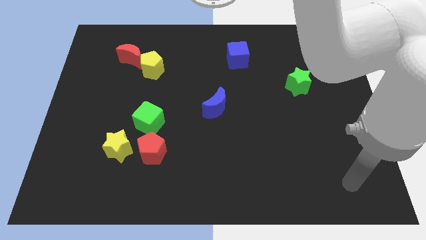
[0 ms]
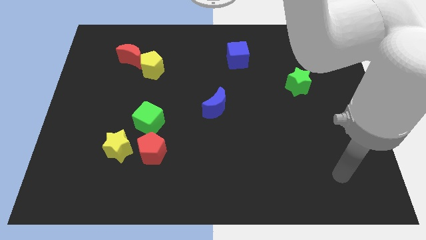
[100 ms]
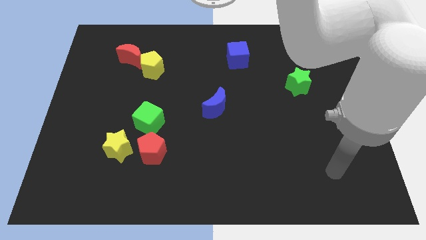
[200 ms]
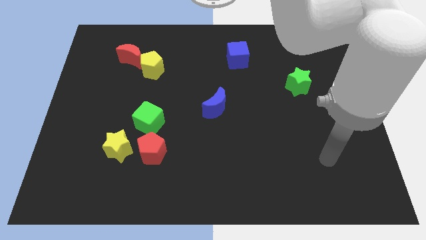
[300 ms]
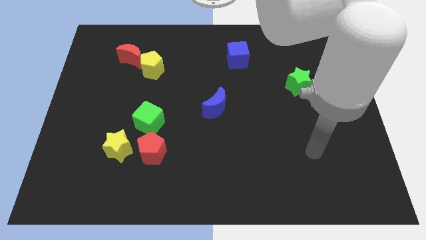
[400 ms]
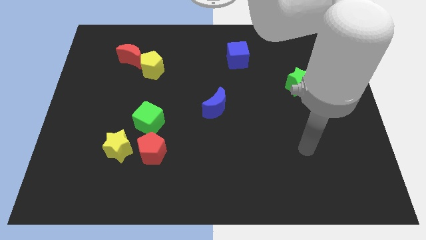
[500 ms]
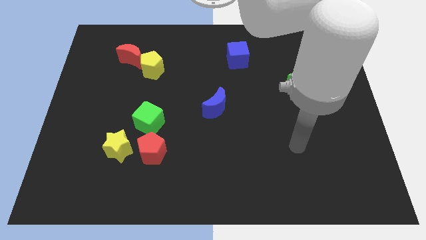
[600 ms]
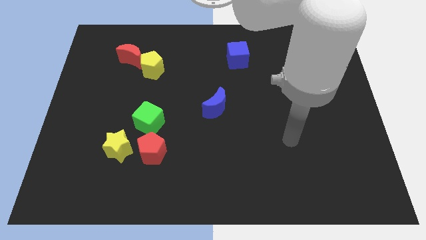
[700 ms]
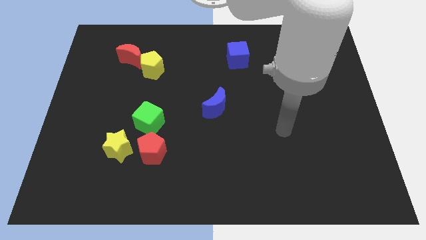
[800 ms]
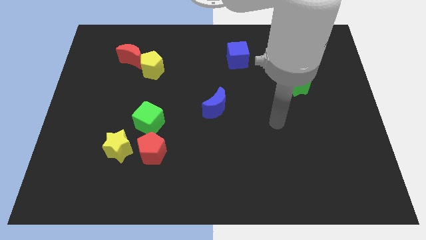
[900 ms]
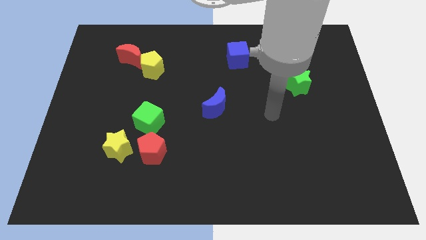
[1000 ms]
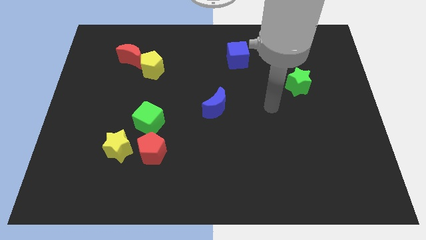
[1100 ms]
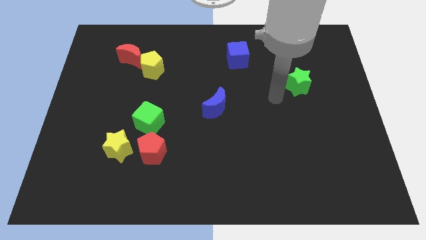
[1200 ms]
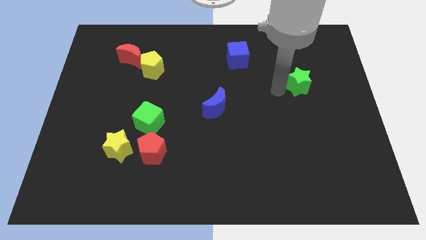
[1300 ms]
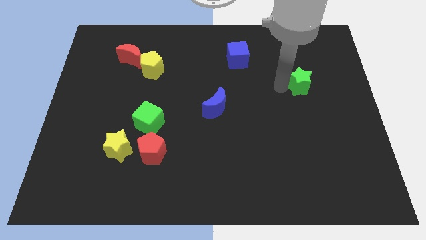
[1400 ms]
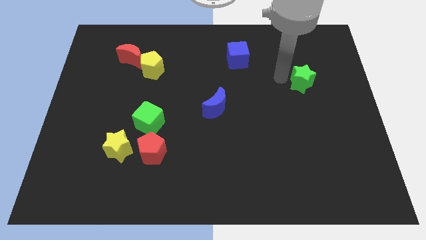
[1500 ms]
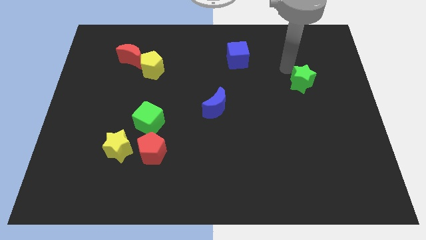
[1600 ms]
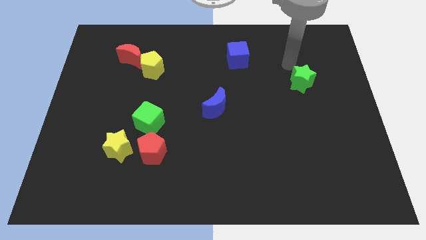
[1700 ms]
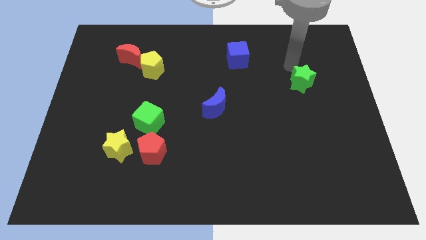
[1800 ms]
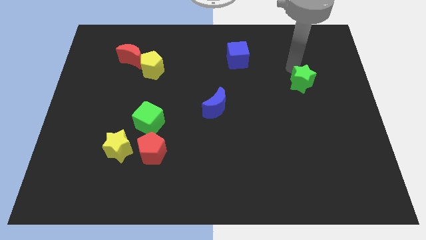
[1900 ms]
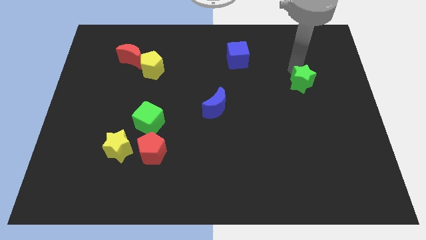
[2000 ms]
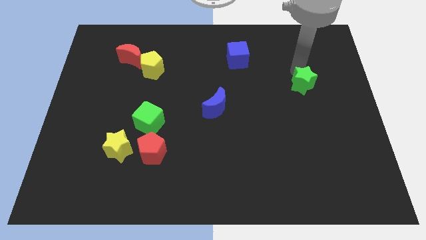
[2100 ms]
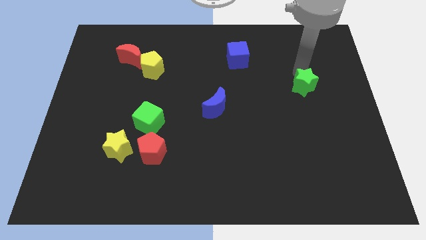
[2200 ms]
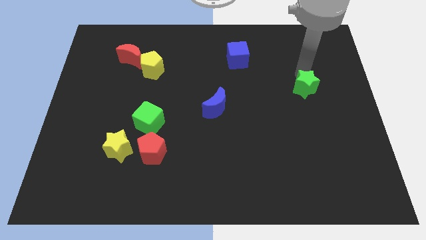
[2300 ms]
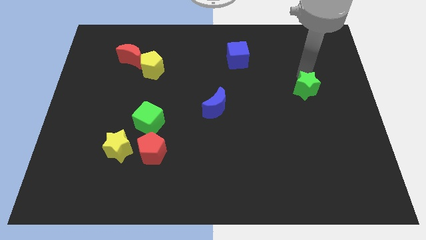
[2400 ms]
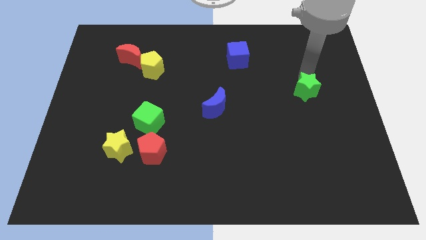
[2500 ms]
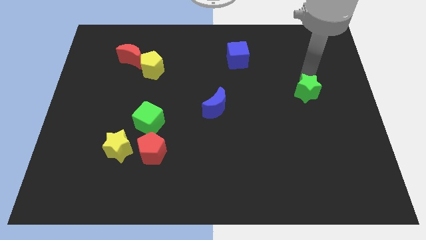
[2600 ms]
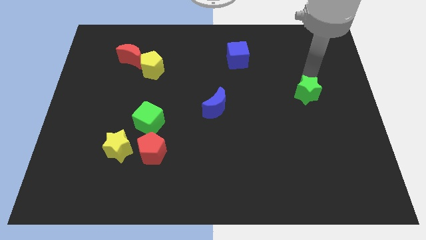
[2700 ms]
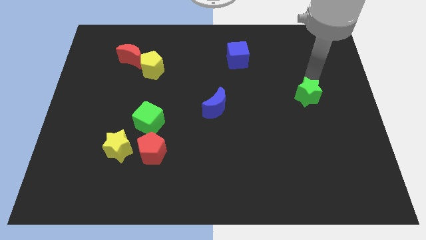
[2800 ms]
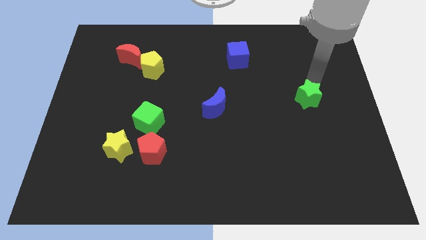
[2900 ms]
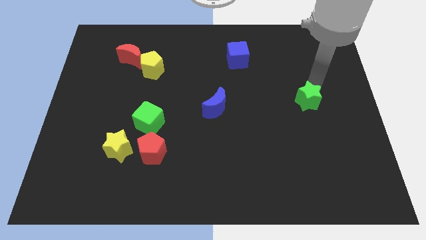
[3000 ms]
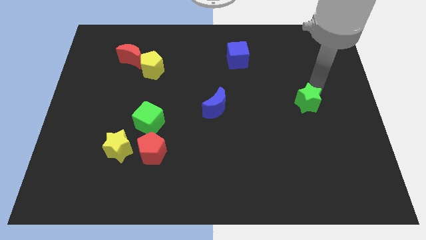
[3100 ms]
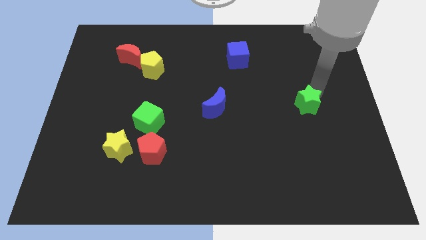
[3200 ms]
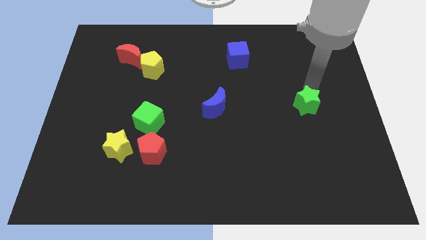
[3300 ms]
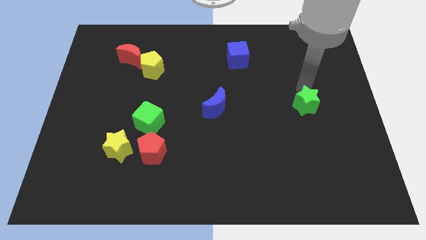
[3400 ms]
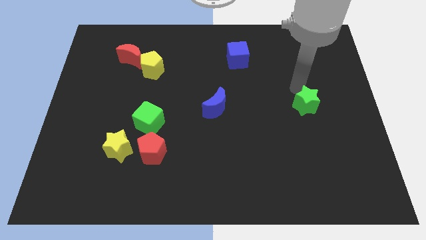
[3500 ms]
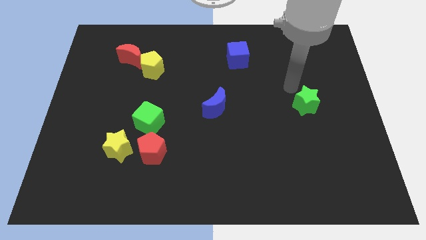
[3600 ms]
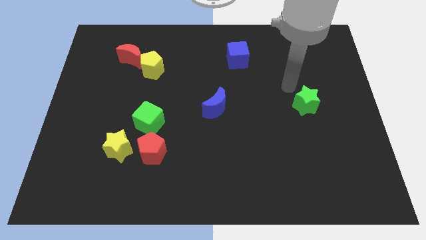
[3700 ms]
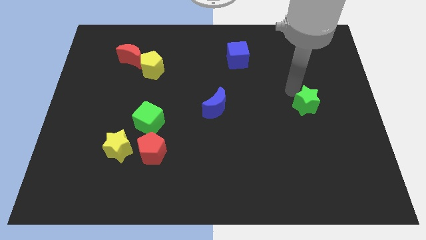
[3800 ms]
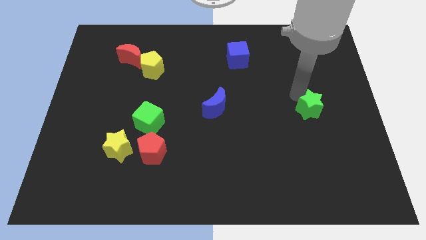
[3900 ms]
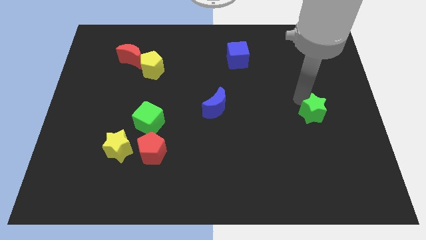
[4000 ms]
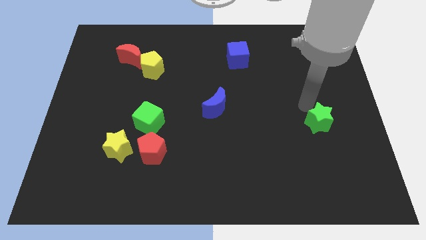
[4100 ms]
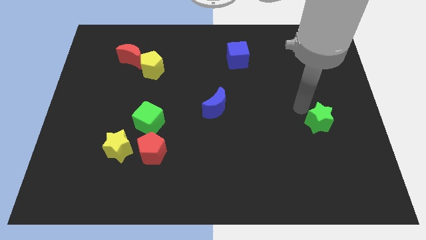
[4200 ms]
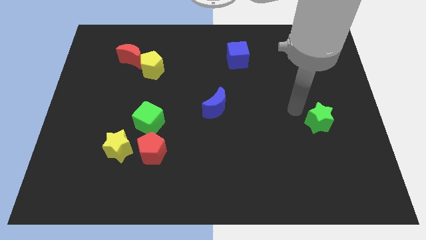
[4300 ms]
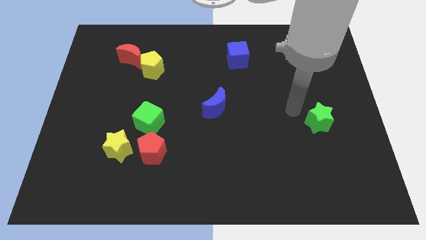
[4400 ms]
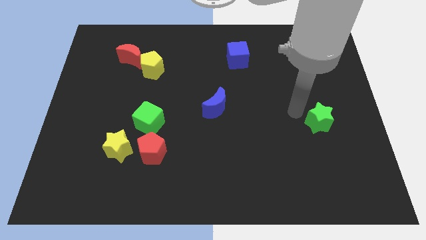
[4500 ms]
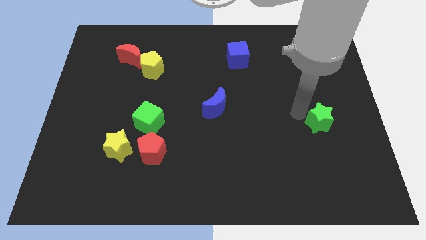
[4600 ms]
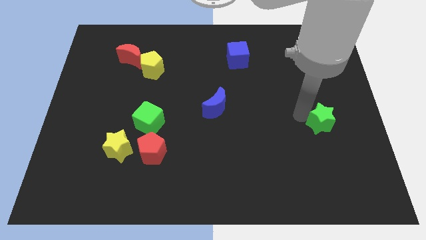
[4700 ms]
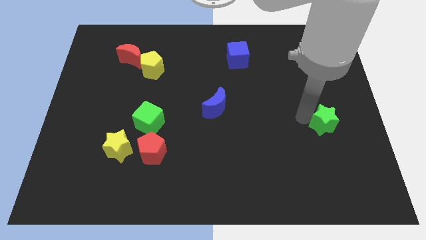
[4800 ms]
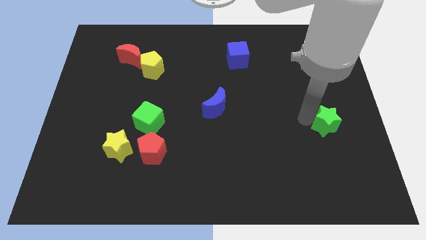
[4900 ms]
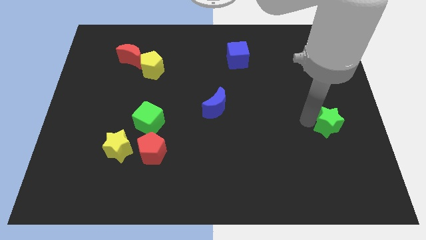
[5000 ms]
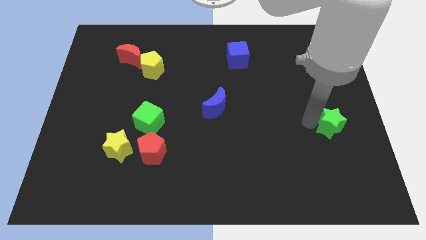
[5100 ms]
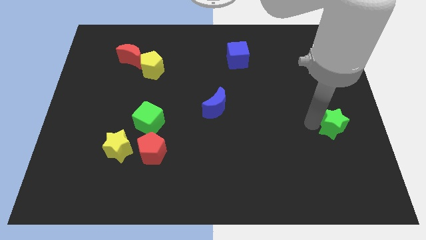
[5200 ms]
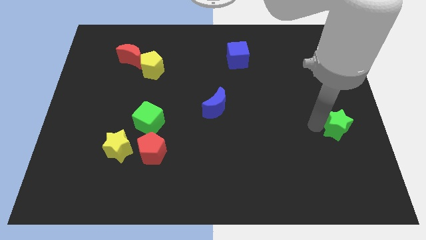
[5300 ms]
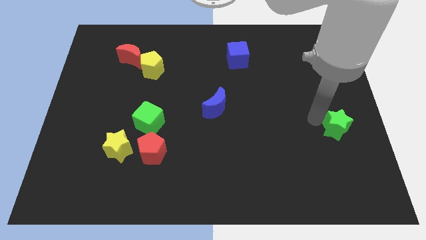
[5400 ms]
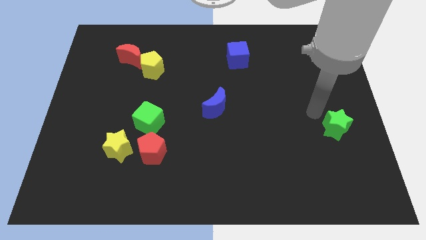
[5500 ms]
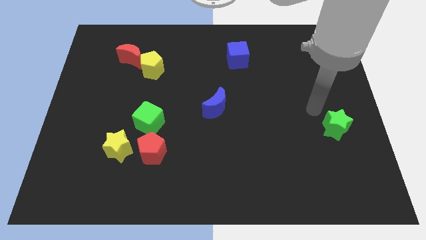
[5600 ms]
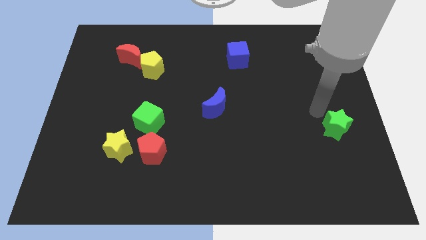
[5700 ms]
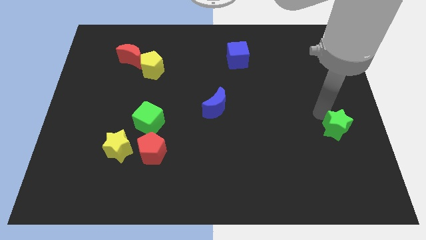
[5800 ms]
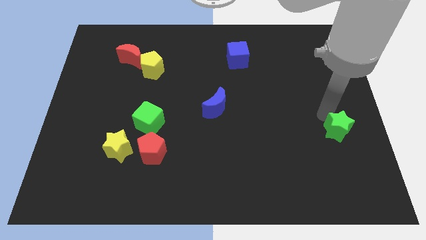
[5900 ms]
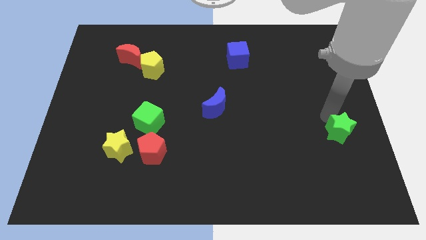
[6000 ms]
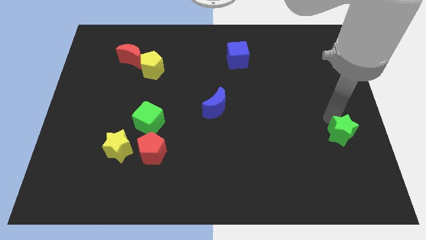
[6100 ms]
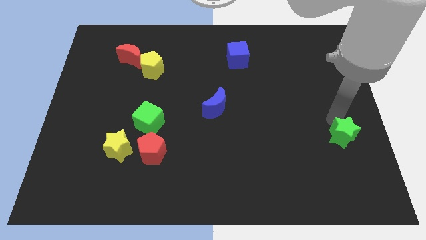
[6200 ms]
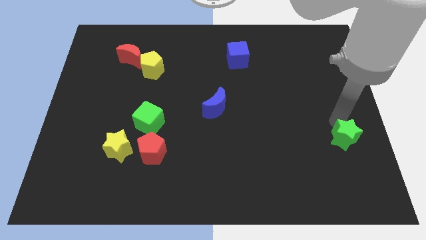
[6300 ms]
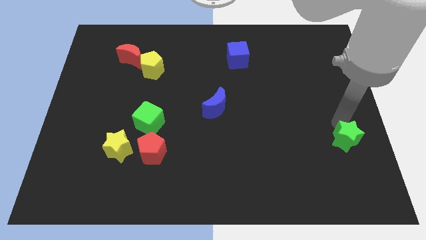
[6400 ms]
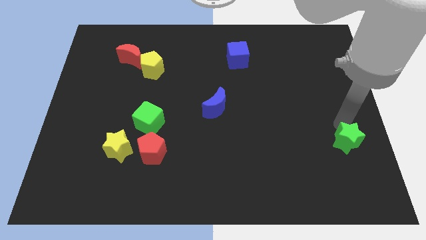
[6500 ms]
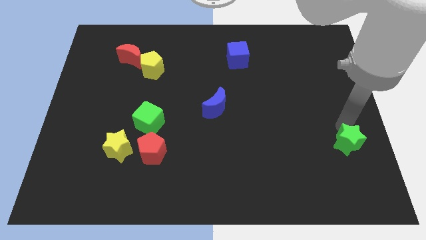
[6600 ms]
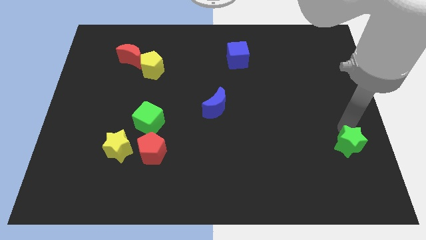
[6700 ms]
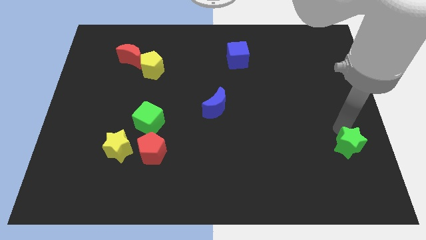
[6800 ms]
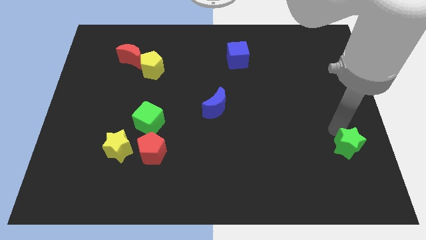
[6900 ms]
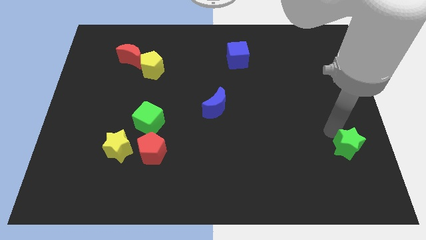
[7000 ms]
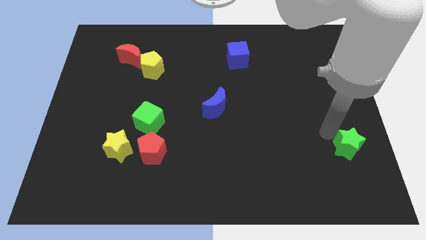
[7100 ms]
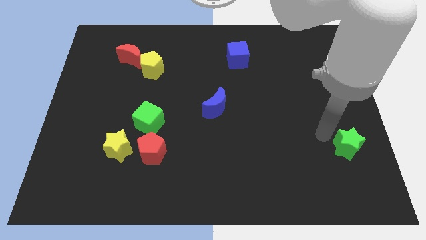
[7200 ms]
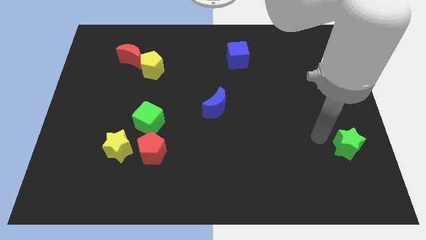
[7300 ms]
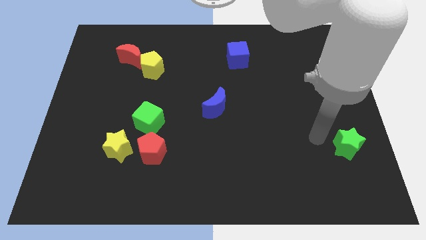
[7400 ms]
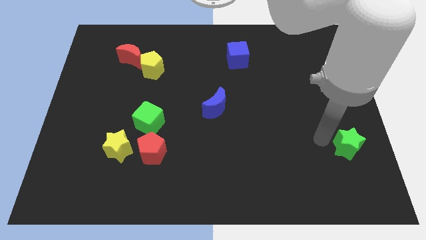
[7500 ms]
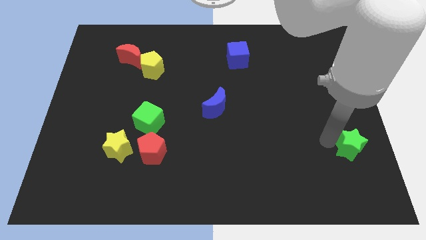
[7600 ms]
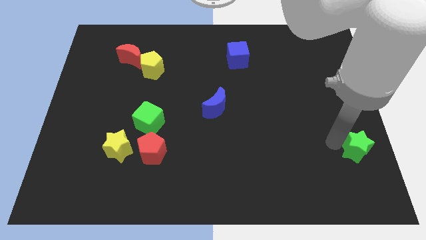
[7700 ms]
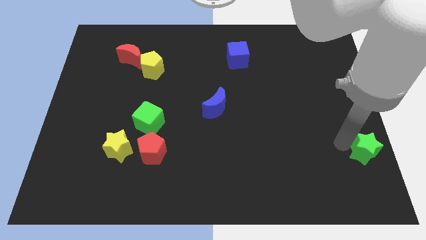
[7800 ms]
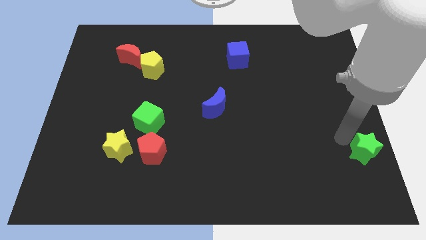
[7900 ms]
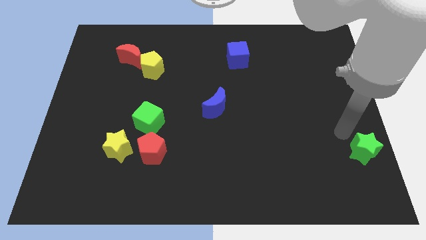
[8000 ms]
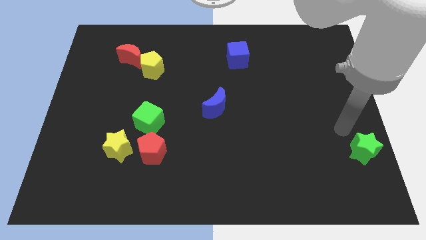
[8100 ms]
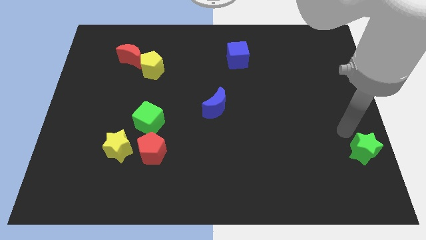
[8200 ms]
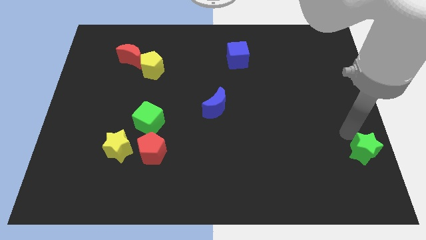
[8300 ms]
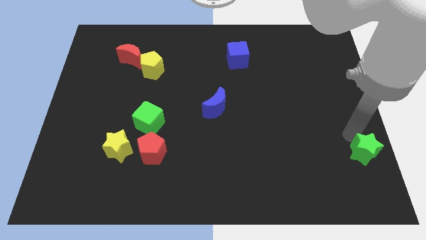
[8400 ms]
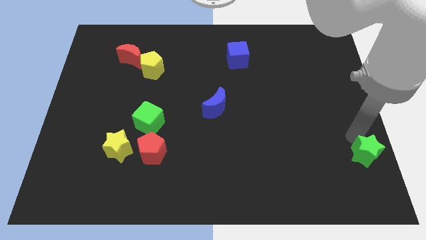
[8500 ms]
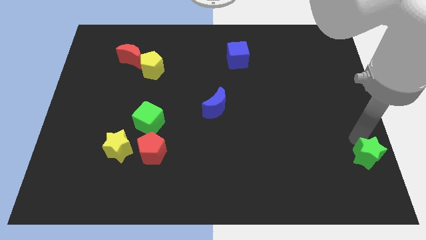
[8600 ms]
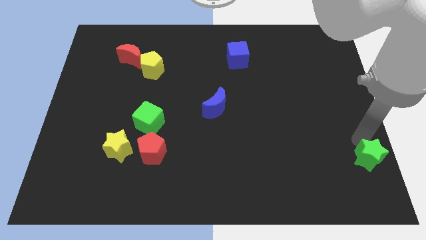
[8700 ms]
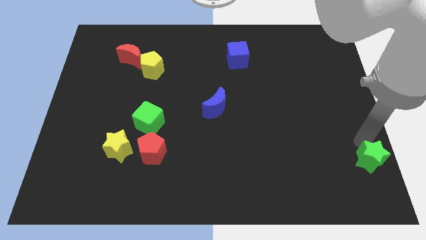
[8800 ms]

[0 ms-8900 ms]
move the green star to the bottom right corner
